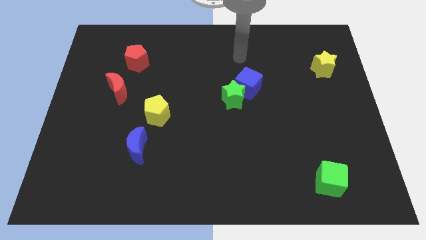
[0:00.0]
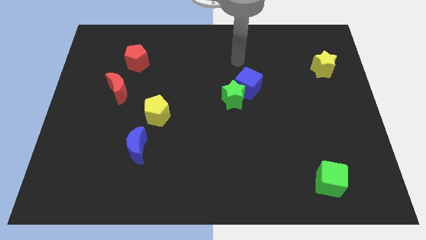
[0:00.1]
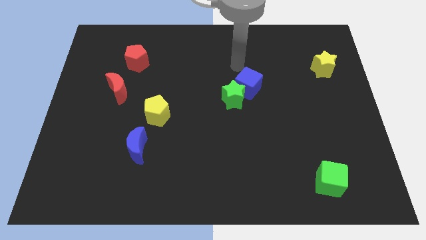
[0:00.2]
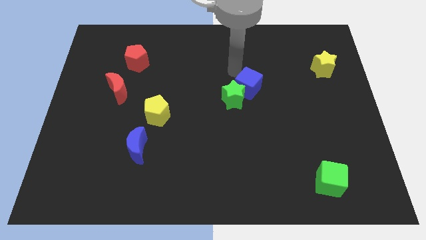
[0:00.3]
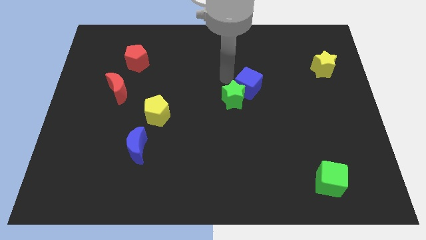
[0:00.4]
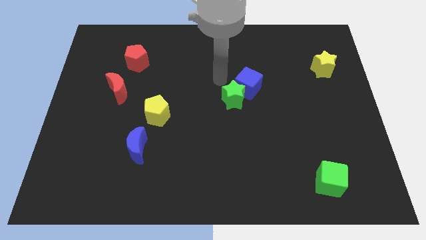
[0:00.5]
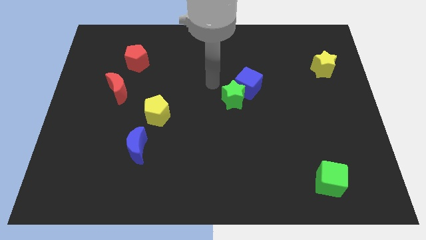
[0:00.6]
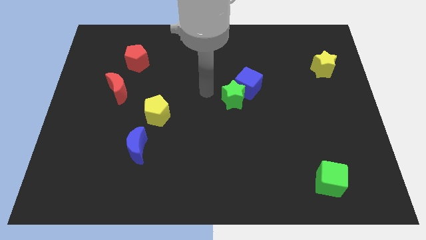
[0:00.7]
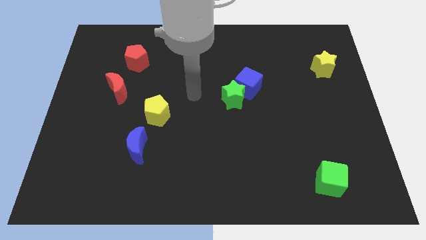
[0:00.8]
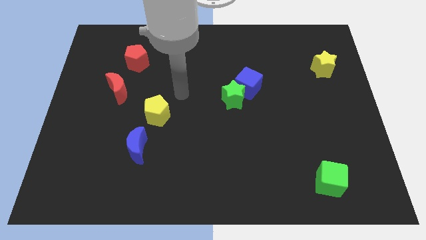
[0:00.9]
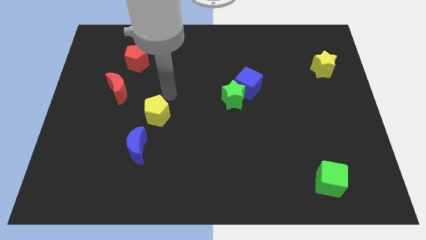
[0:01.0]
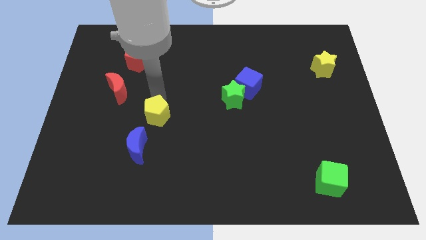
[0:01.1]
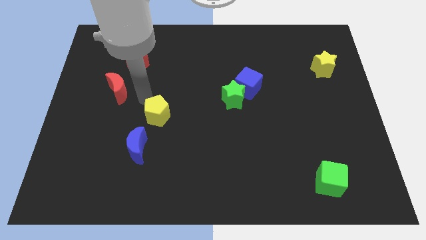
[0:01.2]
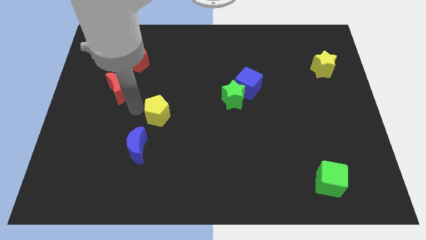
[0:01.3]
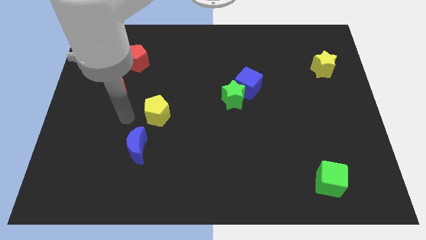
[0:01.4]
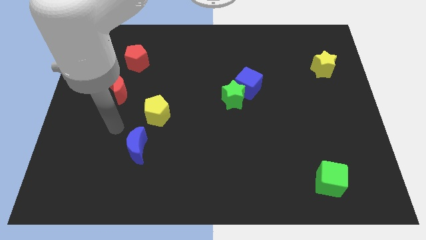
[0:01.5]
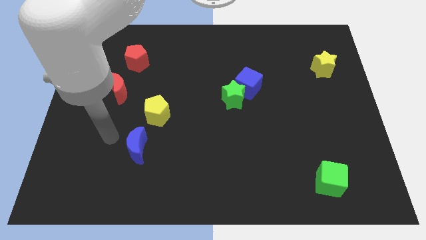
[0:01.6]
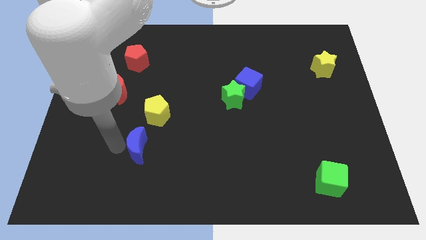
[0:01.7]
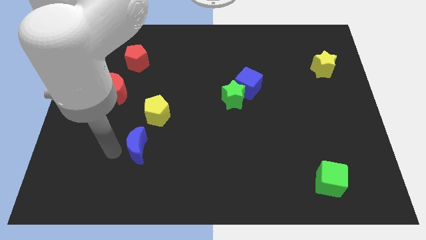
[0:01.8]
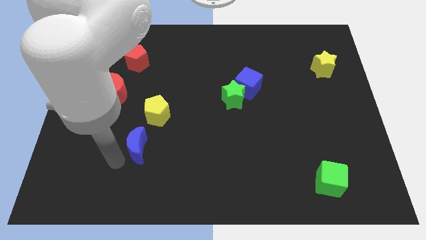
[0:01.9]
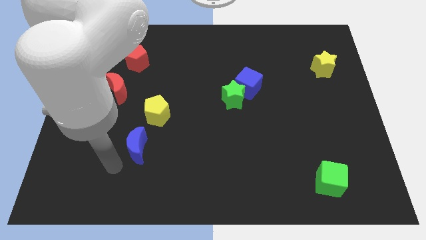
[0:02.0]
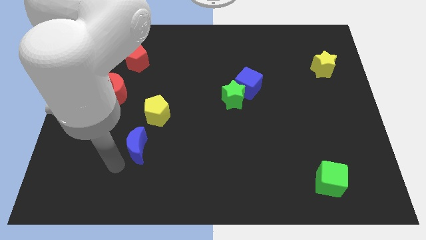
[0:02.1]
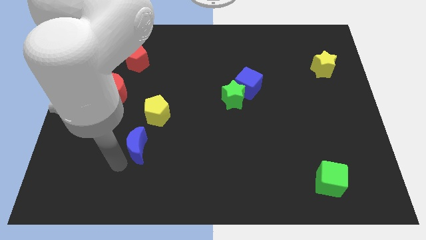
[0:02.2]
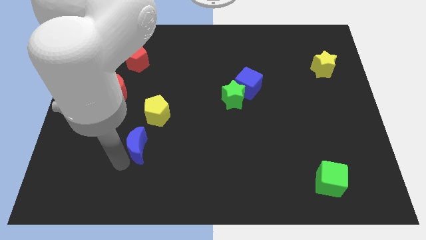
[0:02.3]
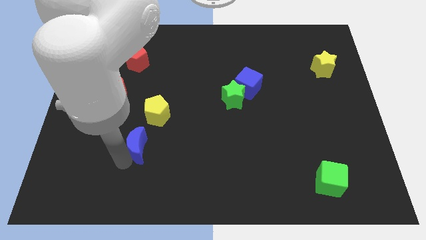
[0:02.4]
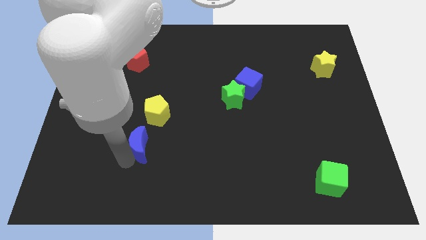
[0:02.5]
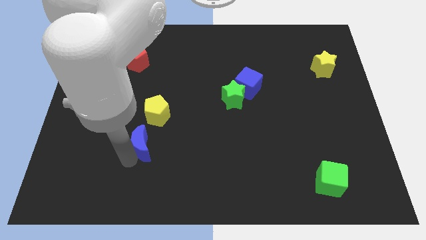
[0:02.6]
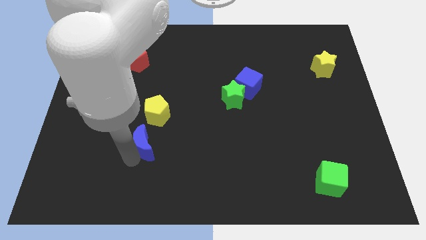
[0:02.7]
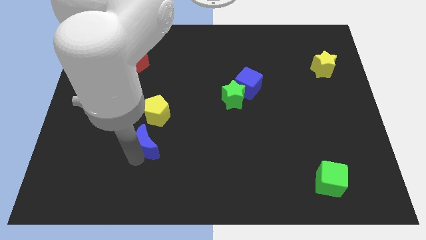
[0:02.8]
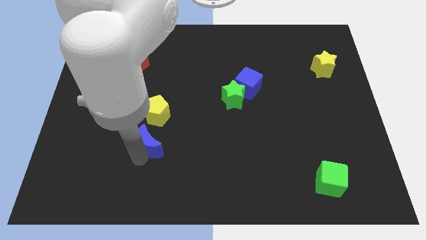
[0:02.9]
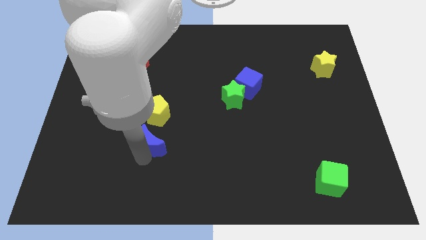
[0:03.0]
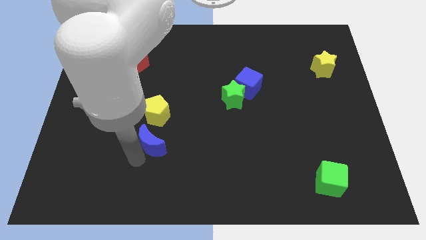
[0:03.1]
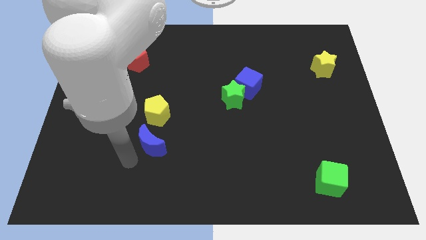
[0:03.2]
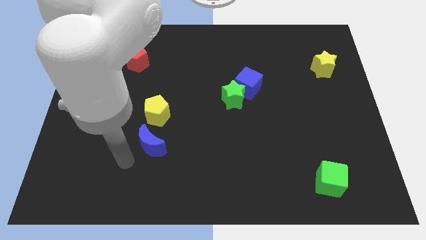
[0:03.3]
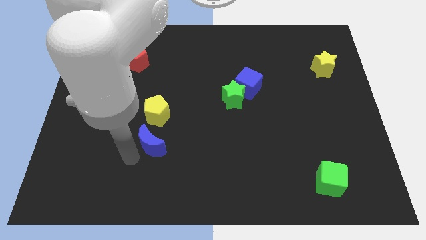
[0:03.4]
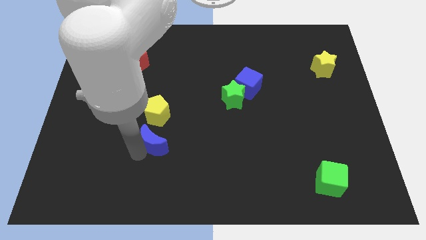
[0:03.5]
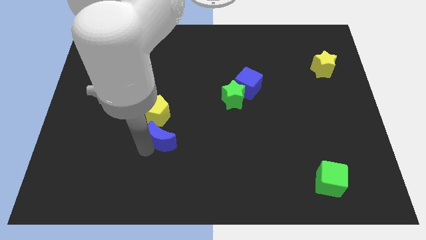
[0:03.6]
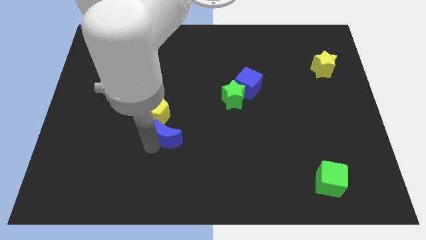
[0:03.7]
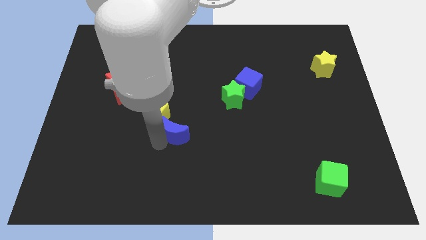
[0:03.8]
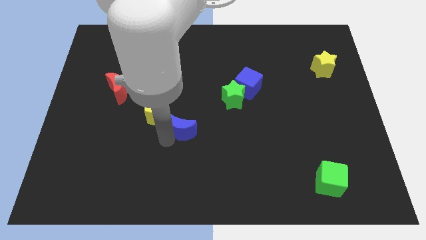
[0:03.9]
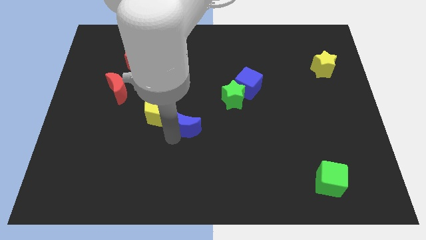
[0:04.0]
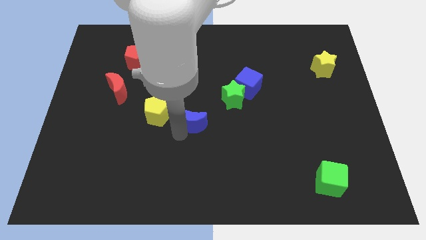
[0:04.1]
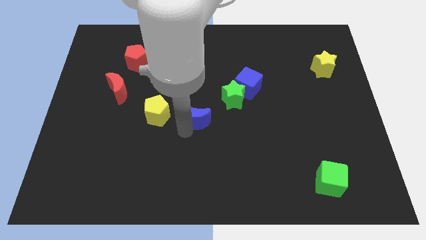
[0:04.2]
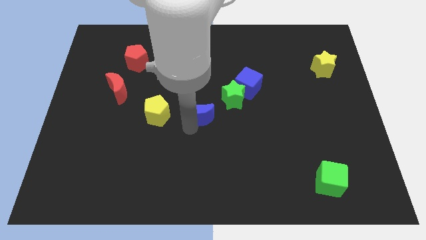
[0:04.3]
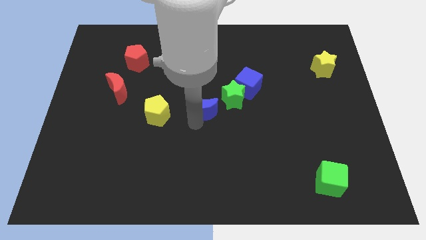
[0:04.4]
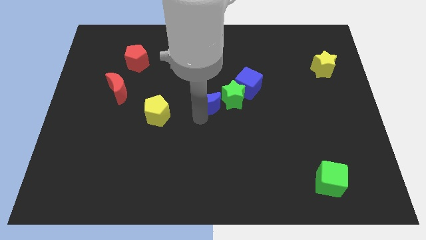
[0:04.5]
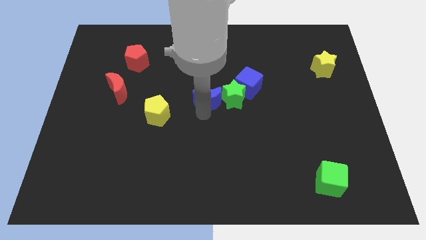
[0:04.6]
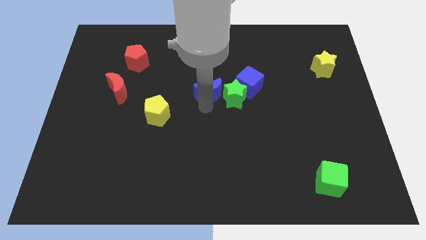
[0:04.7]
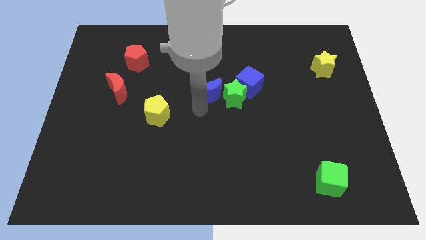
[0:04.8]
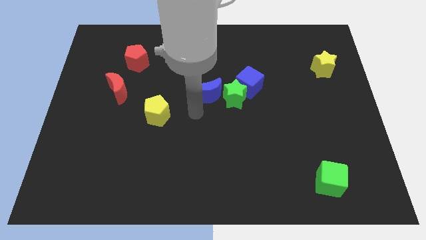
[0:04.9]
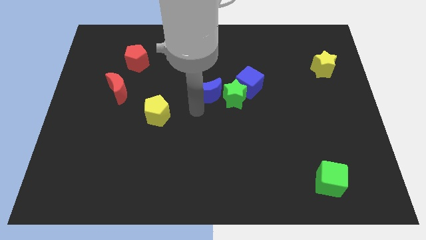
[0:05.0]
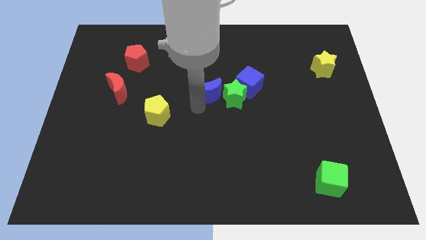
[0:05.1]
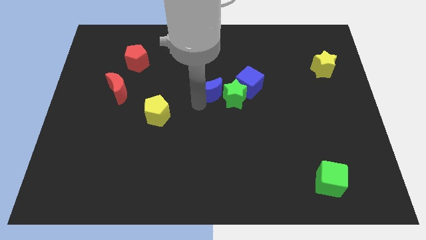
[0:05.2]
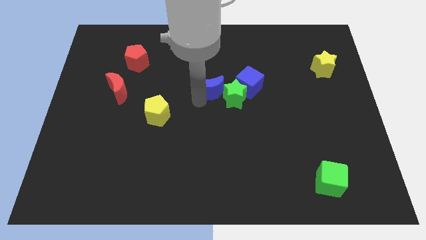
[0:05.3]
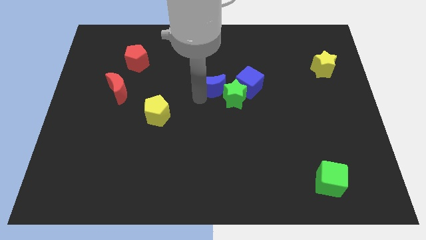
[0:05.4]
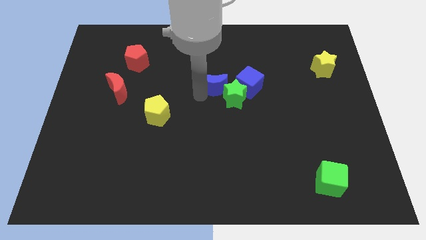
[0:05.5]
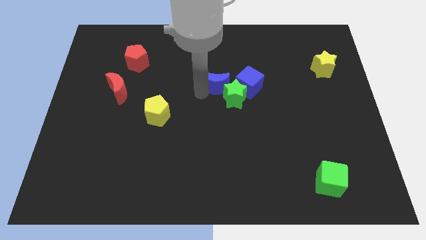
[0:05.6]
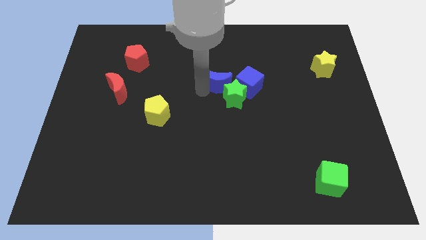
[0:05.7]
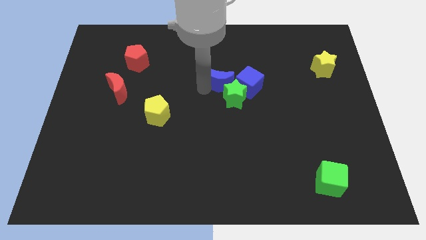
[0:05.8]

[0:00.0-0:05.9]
put the blue moon to the top left of the blue cube

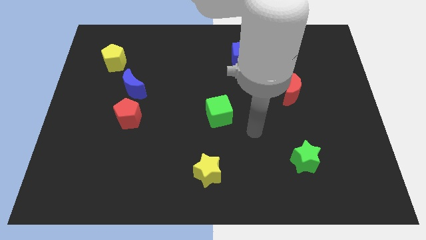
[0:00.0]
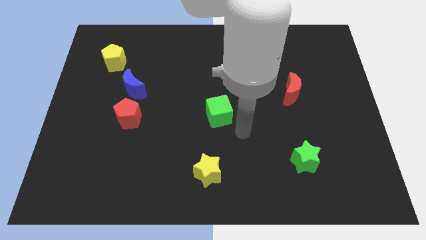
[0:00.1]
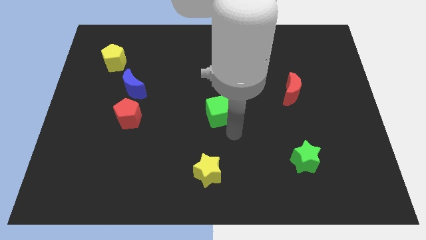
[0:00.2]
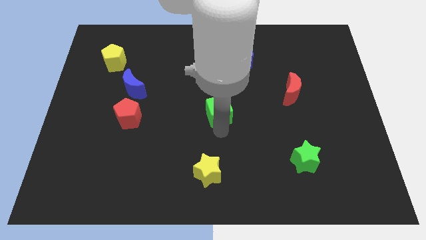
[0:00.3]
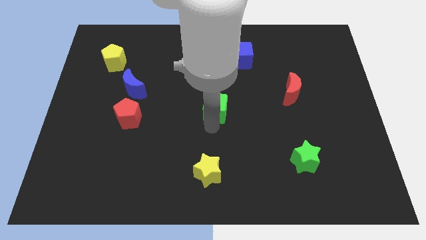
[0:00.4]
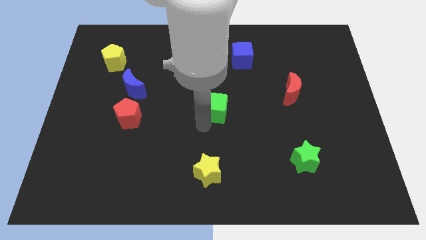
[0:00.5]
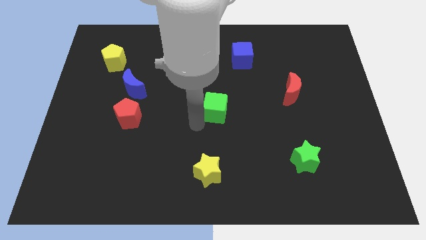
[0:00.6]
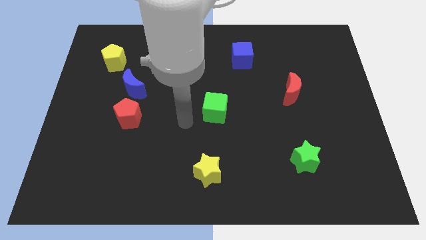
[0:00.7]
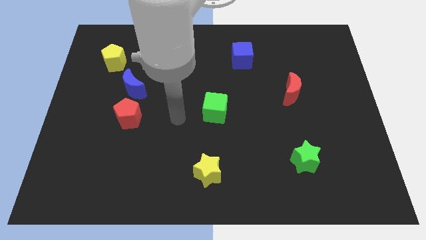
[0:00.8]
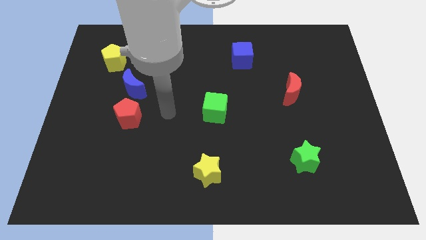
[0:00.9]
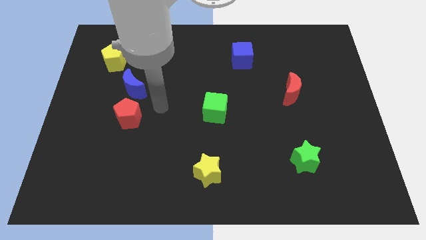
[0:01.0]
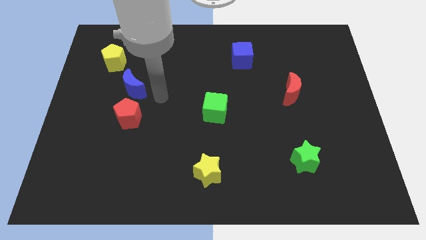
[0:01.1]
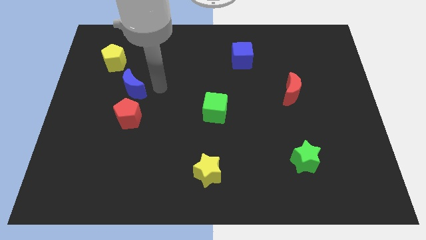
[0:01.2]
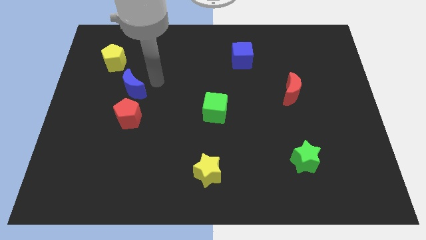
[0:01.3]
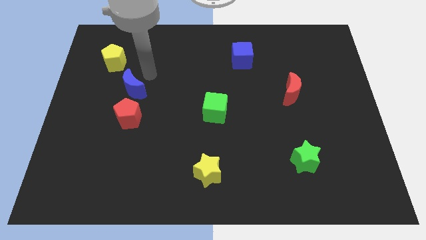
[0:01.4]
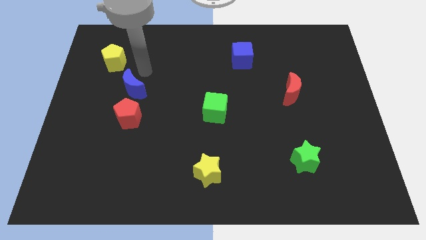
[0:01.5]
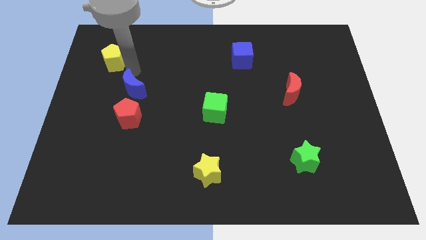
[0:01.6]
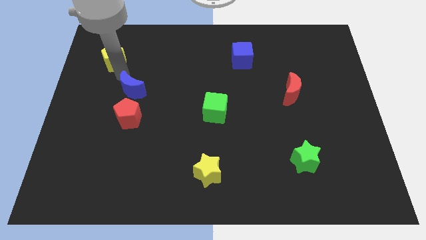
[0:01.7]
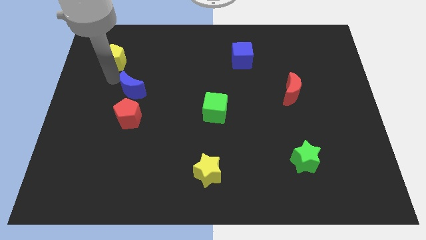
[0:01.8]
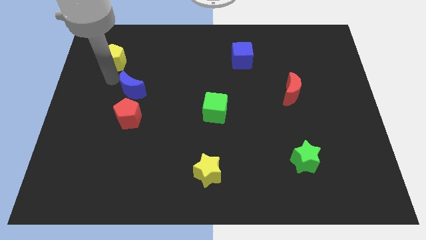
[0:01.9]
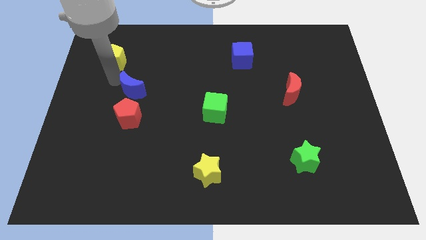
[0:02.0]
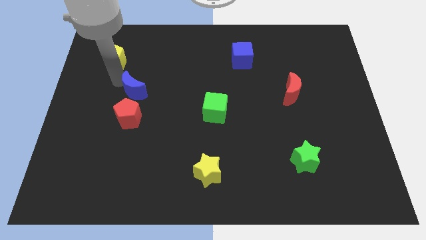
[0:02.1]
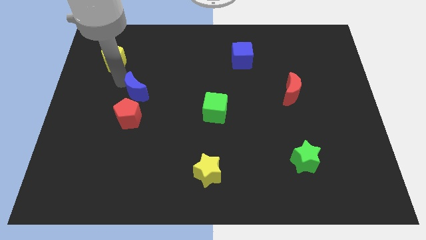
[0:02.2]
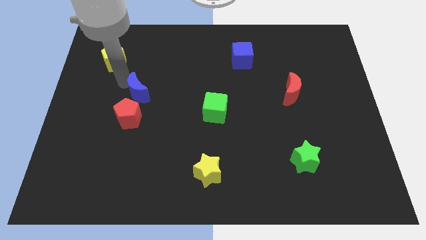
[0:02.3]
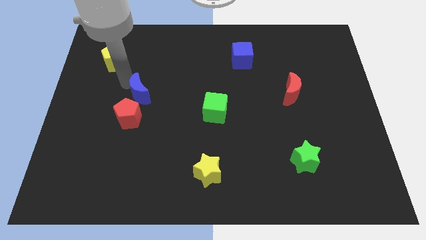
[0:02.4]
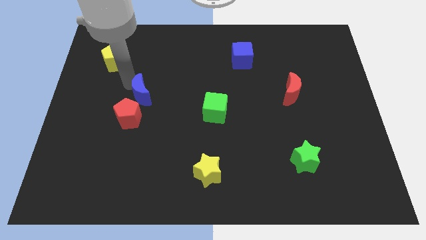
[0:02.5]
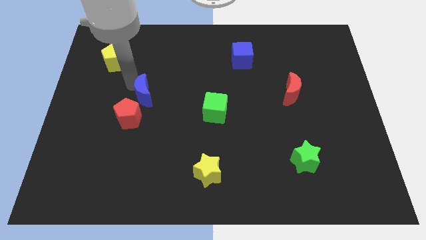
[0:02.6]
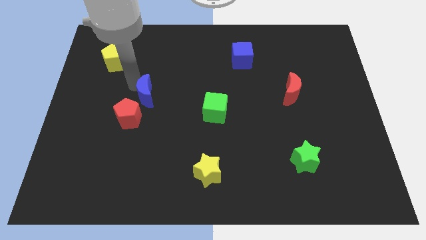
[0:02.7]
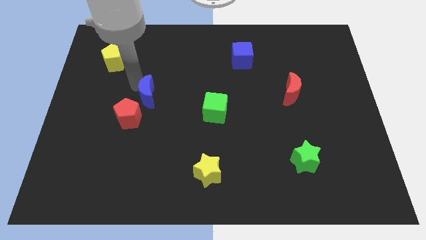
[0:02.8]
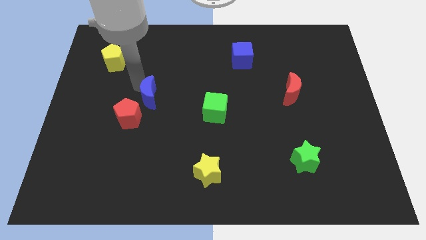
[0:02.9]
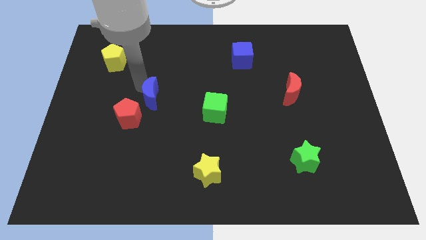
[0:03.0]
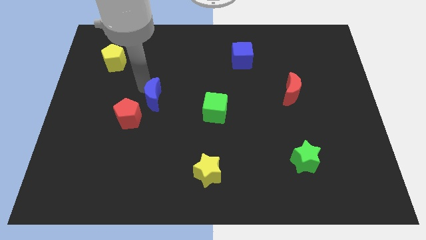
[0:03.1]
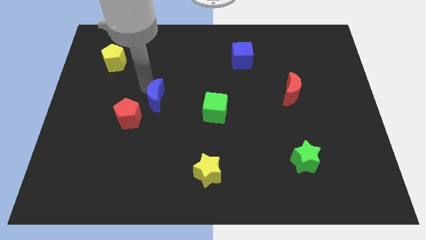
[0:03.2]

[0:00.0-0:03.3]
put the blue moon to the left of the green cube
